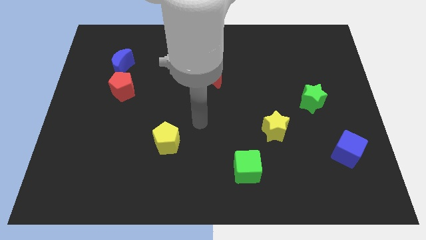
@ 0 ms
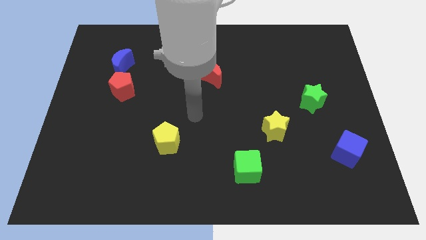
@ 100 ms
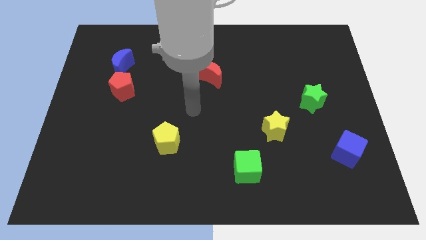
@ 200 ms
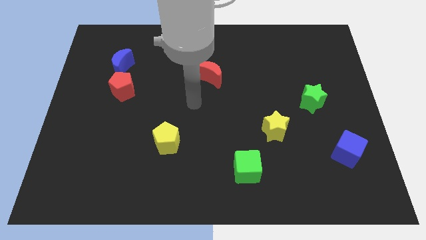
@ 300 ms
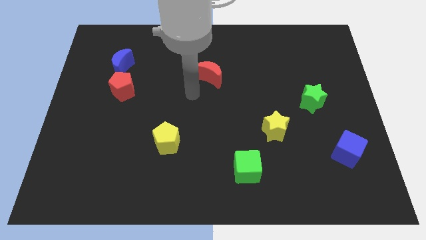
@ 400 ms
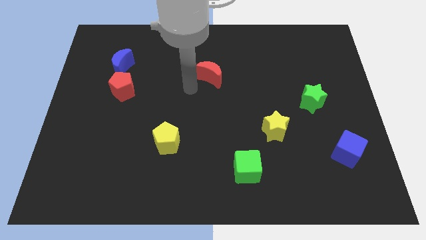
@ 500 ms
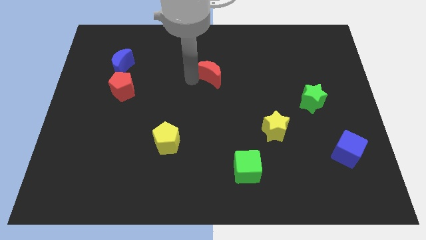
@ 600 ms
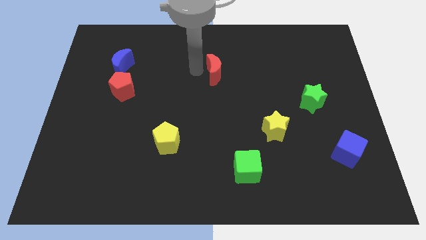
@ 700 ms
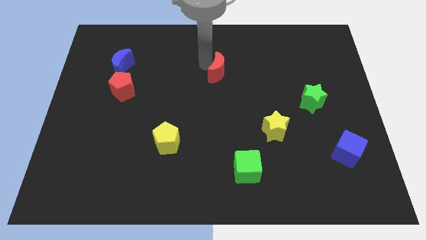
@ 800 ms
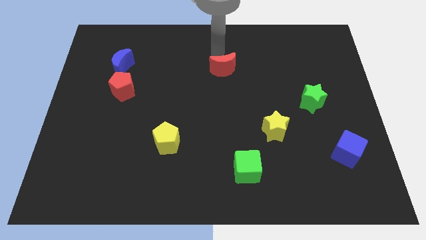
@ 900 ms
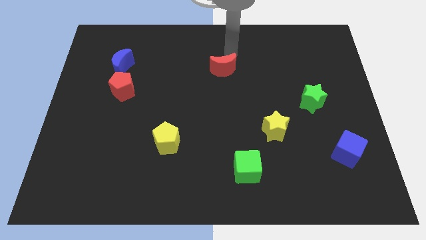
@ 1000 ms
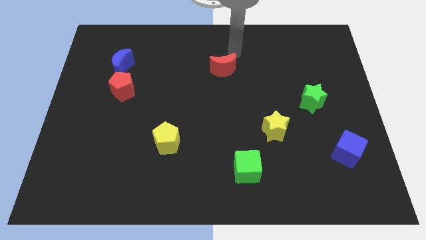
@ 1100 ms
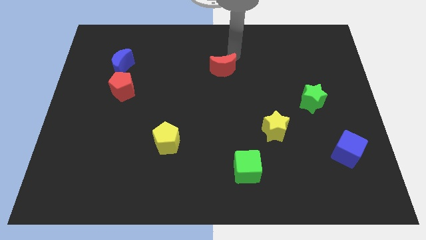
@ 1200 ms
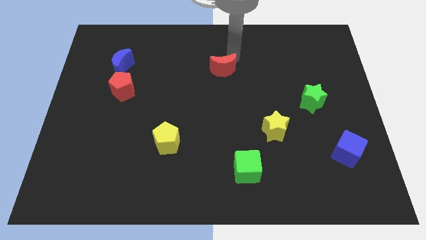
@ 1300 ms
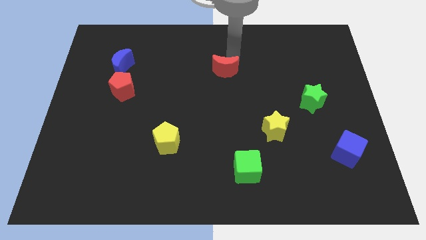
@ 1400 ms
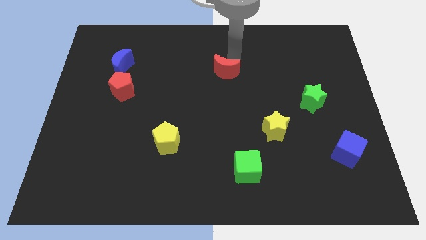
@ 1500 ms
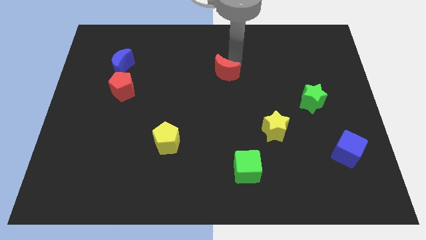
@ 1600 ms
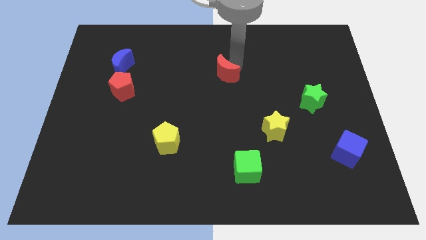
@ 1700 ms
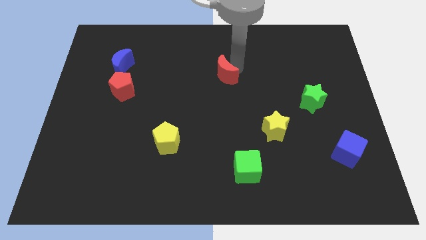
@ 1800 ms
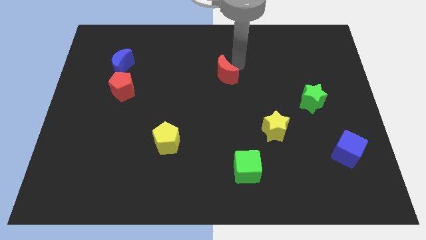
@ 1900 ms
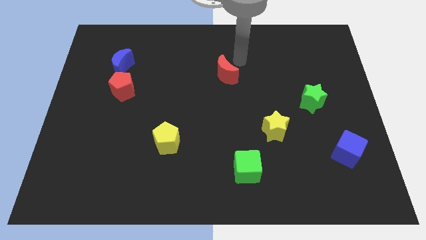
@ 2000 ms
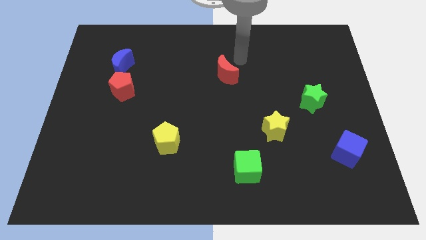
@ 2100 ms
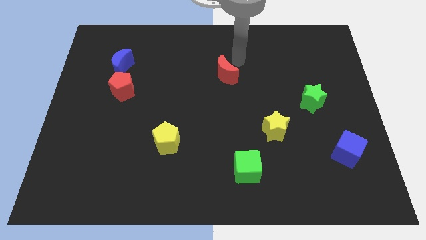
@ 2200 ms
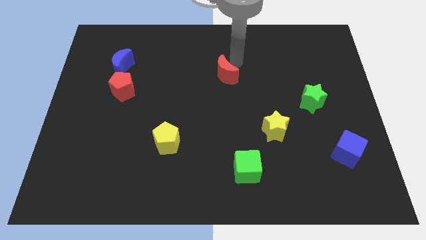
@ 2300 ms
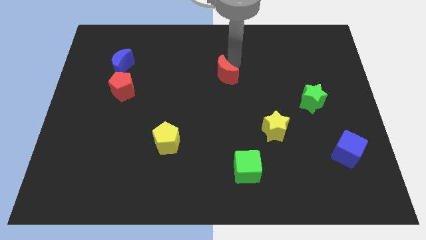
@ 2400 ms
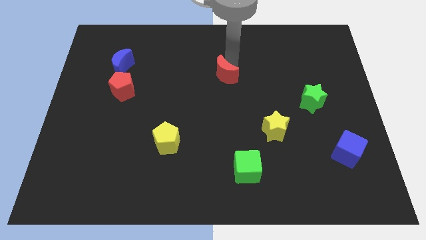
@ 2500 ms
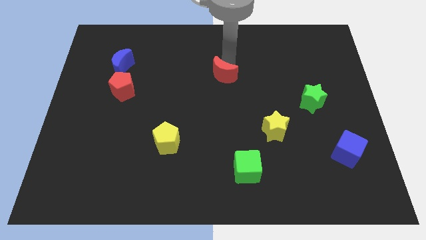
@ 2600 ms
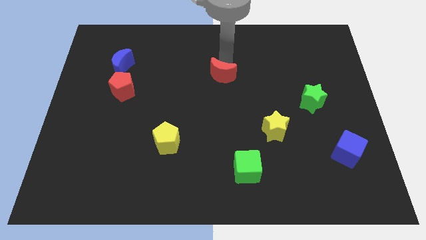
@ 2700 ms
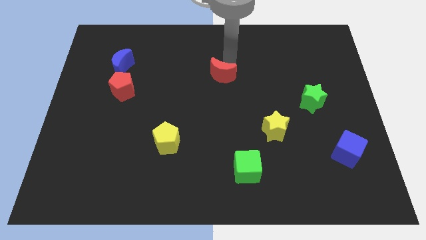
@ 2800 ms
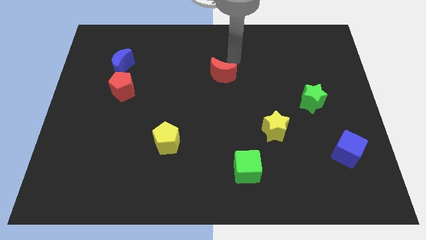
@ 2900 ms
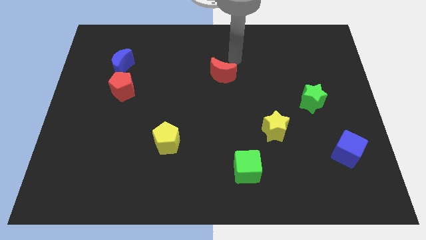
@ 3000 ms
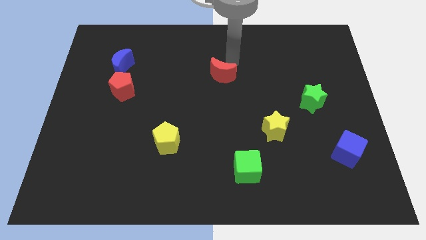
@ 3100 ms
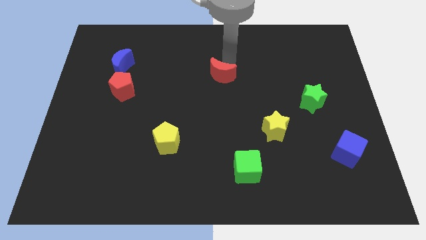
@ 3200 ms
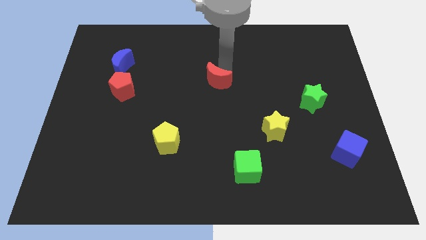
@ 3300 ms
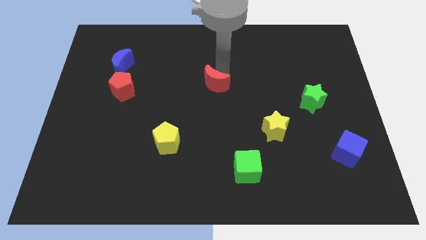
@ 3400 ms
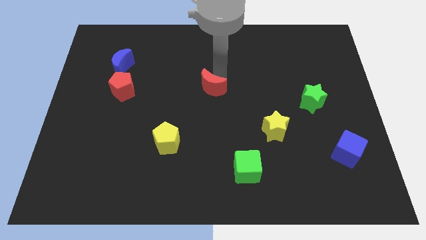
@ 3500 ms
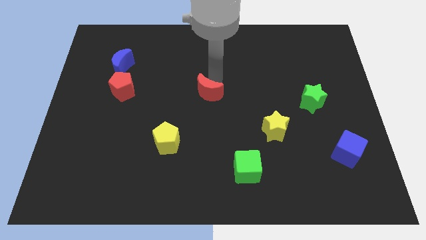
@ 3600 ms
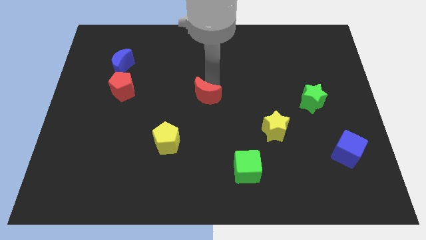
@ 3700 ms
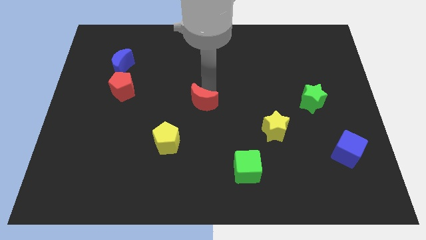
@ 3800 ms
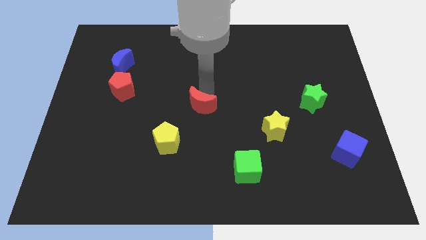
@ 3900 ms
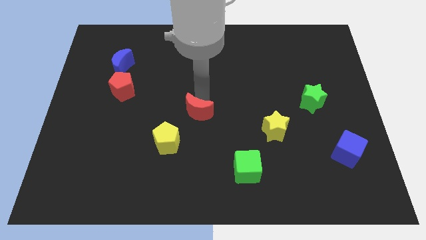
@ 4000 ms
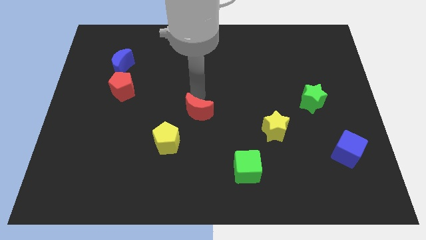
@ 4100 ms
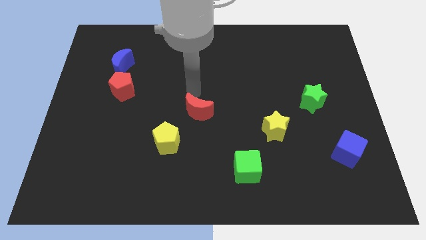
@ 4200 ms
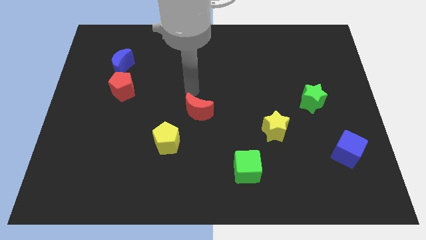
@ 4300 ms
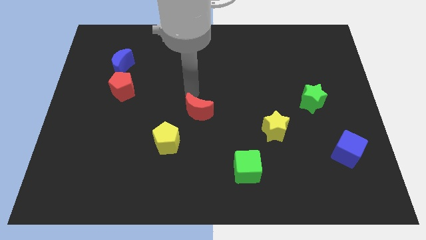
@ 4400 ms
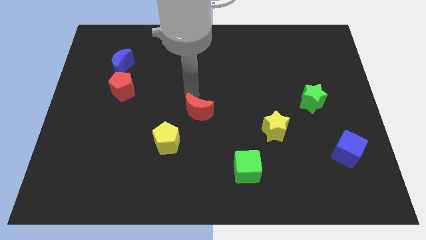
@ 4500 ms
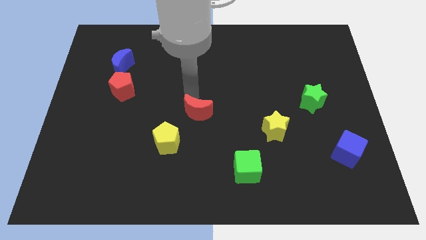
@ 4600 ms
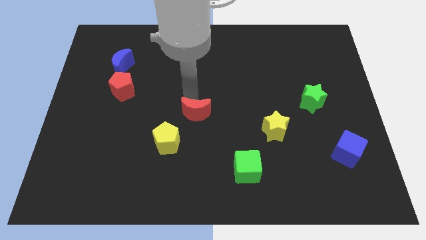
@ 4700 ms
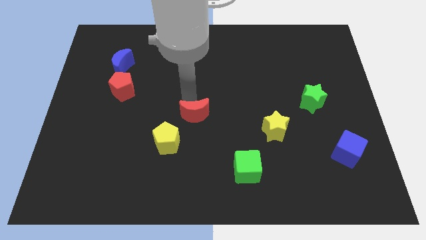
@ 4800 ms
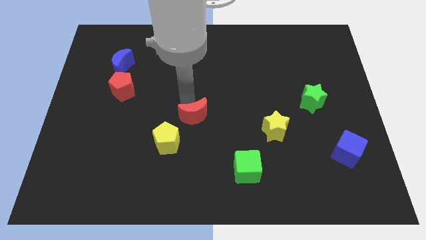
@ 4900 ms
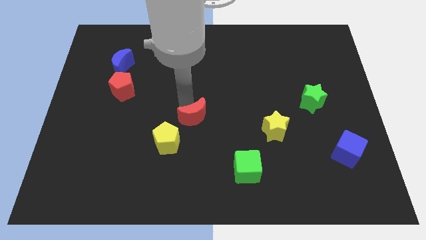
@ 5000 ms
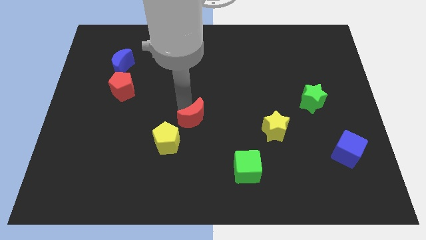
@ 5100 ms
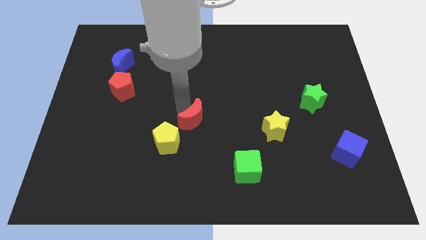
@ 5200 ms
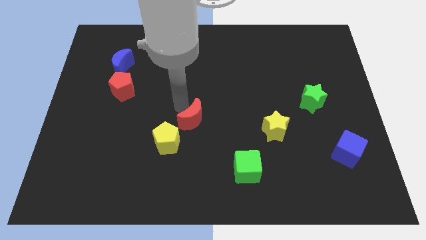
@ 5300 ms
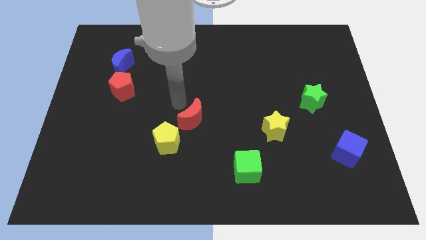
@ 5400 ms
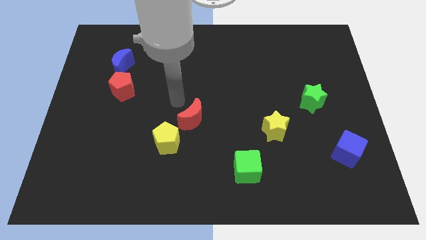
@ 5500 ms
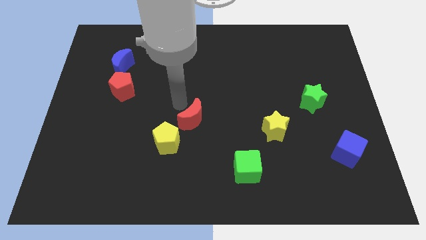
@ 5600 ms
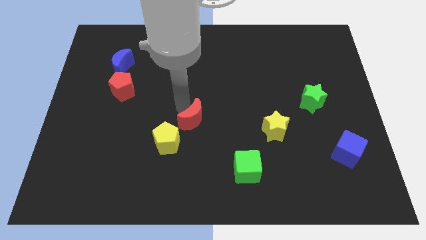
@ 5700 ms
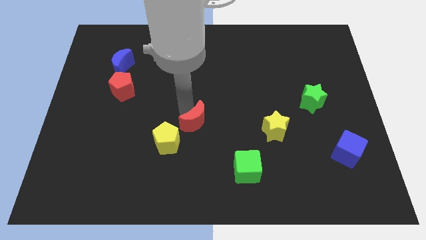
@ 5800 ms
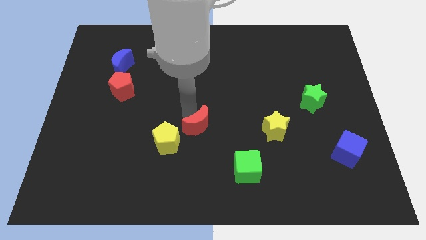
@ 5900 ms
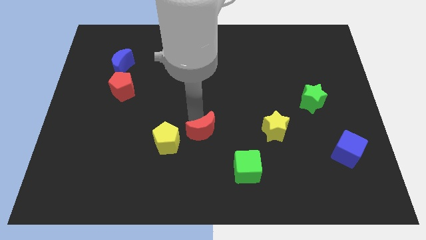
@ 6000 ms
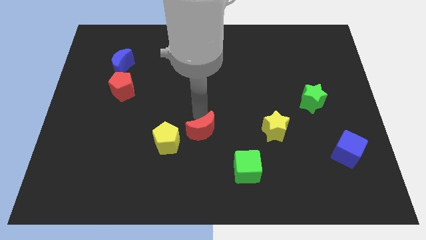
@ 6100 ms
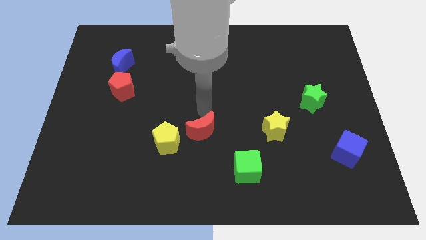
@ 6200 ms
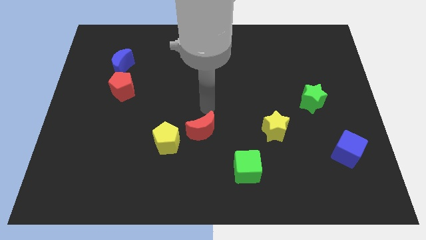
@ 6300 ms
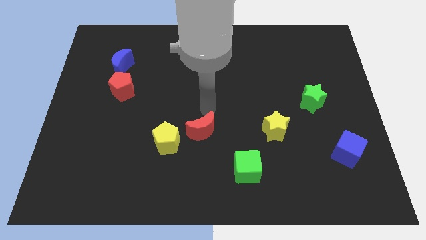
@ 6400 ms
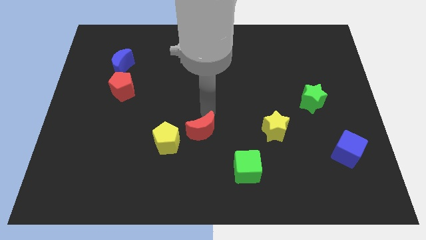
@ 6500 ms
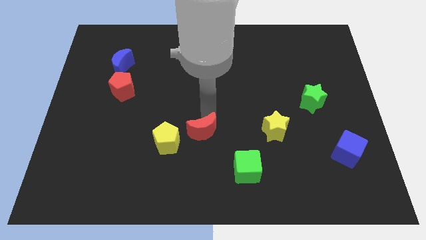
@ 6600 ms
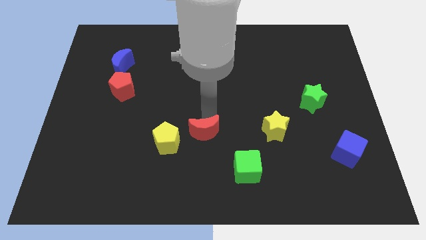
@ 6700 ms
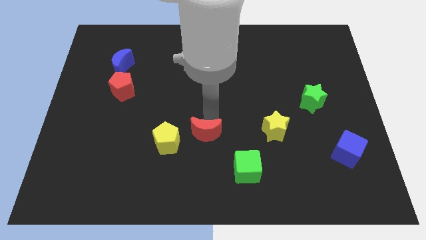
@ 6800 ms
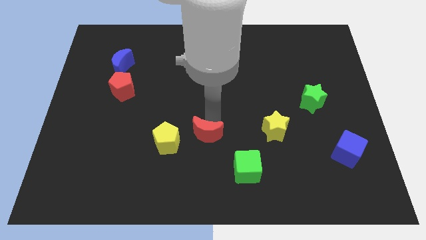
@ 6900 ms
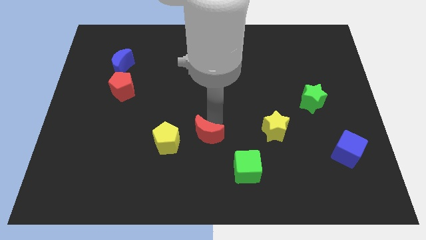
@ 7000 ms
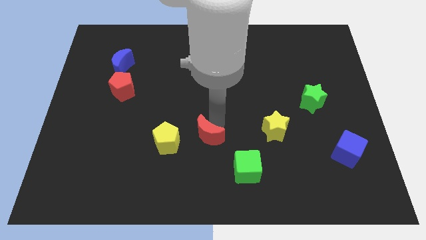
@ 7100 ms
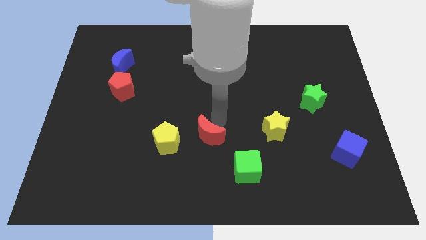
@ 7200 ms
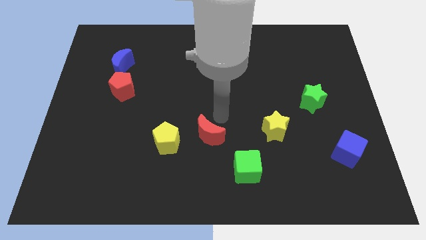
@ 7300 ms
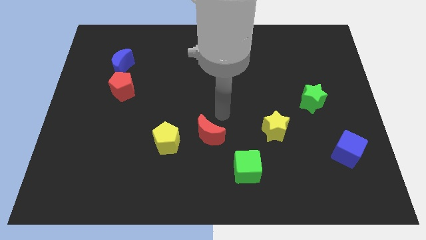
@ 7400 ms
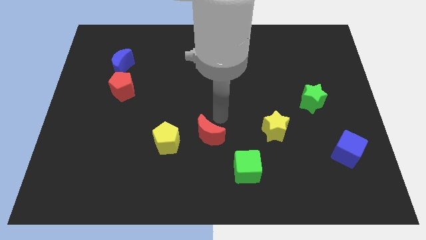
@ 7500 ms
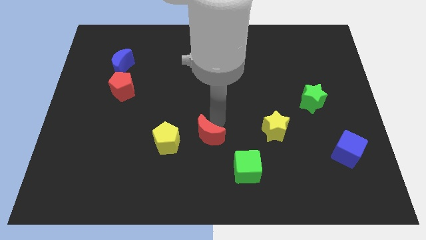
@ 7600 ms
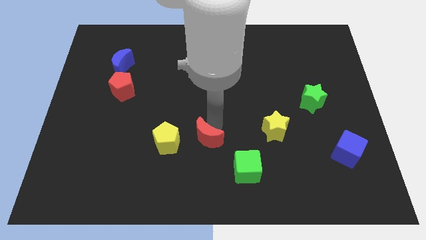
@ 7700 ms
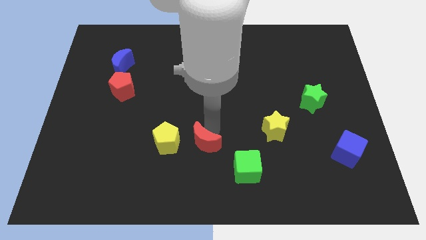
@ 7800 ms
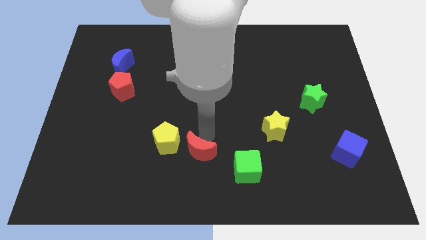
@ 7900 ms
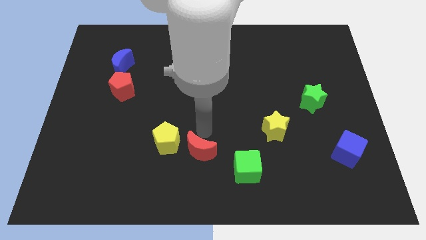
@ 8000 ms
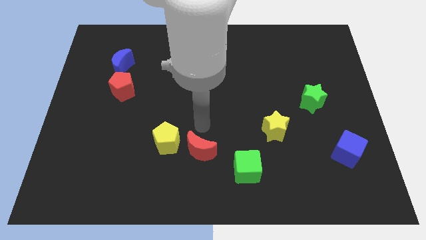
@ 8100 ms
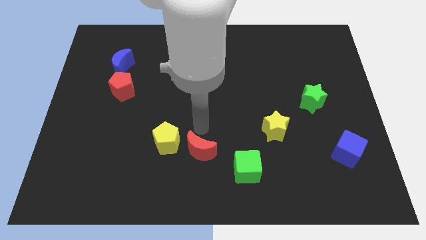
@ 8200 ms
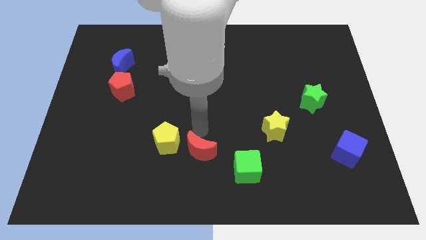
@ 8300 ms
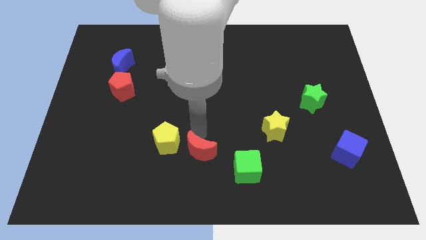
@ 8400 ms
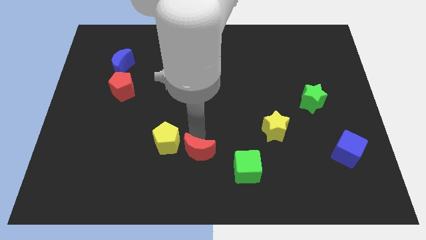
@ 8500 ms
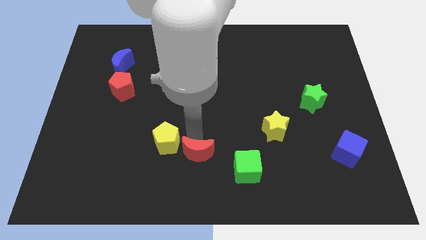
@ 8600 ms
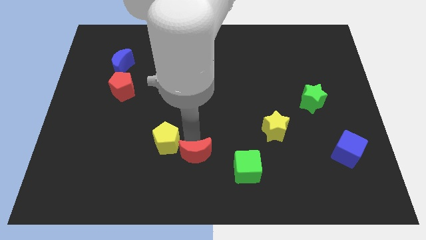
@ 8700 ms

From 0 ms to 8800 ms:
put the red moon to the bottom side
